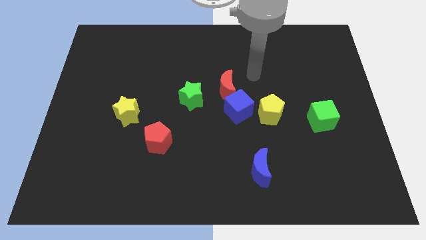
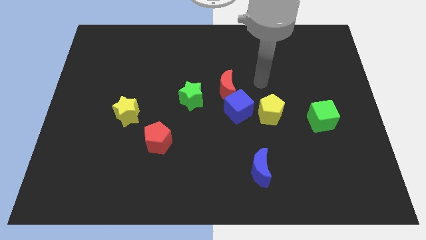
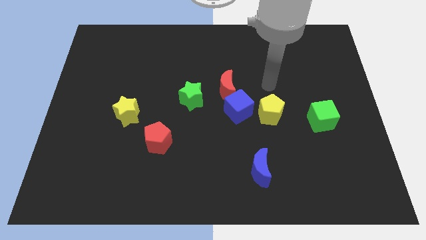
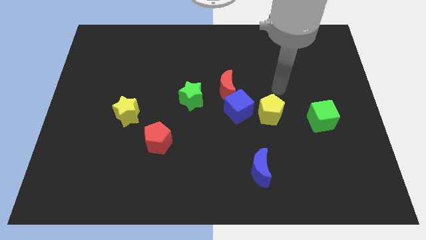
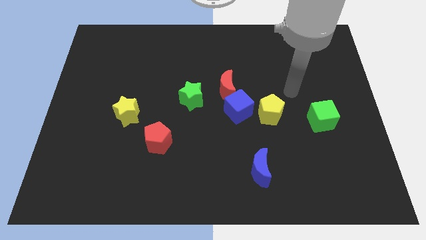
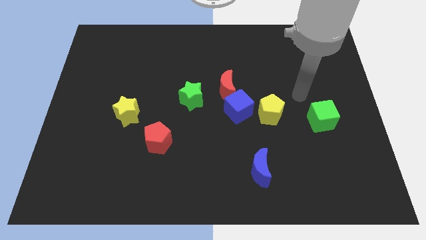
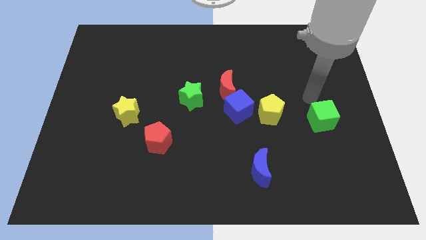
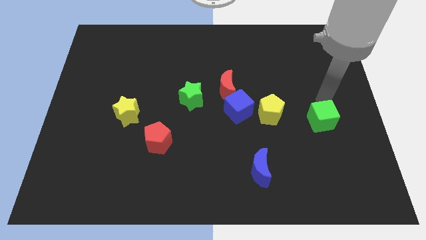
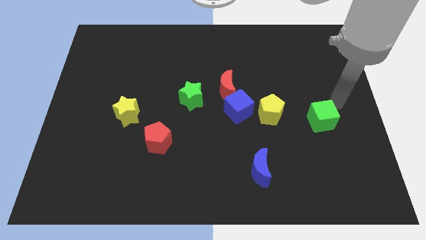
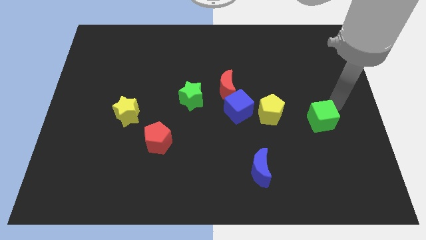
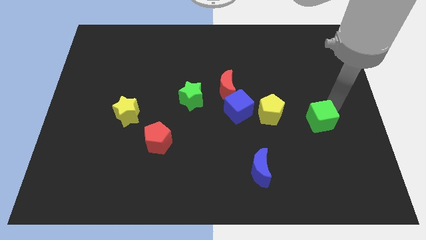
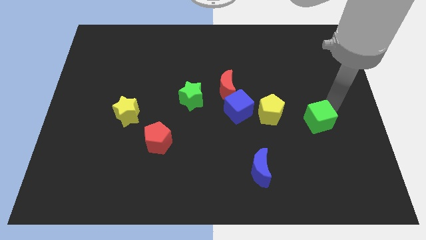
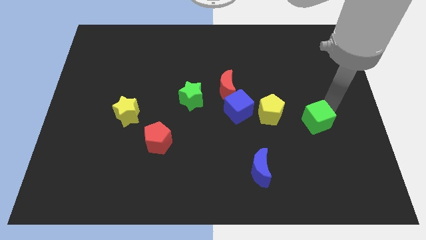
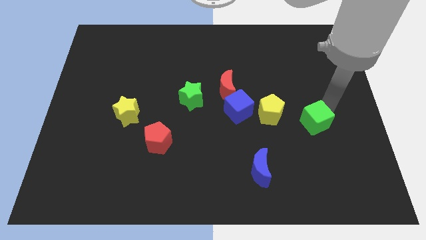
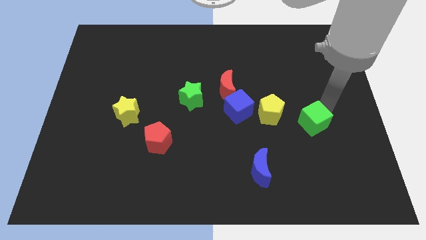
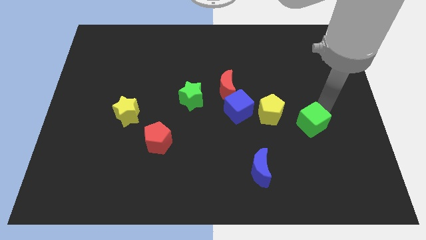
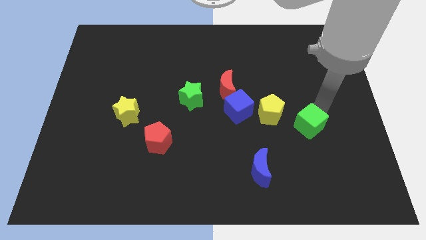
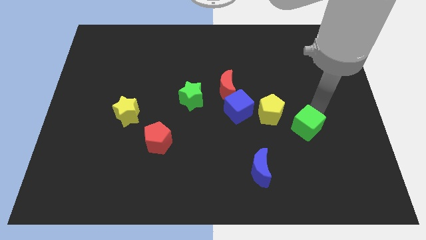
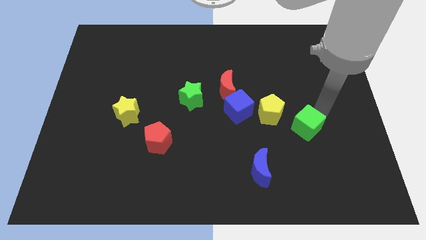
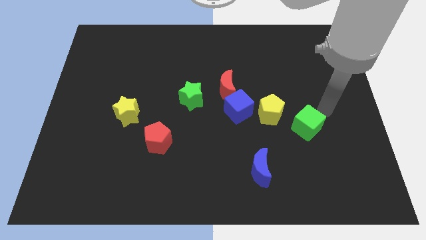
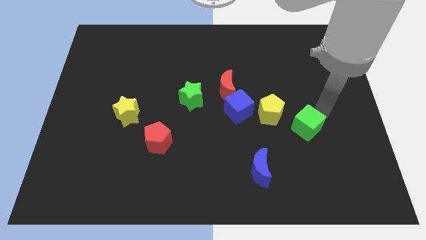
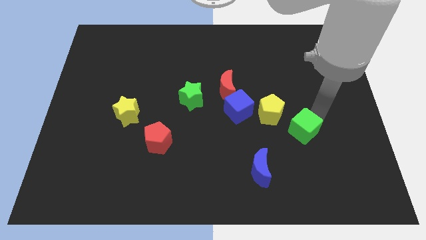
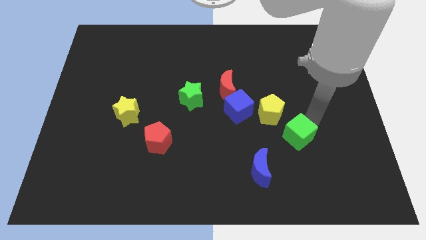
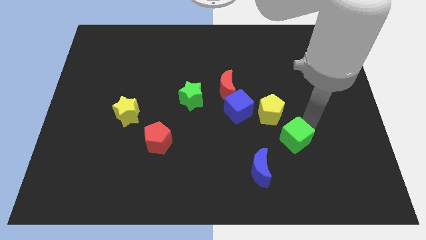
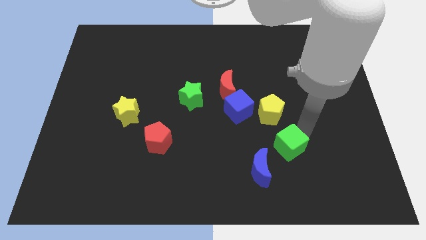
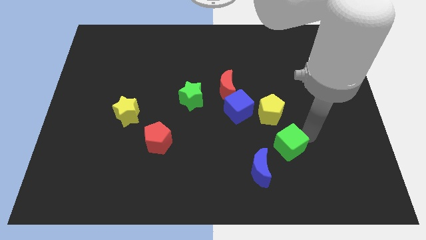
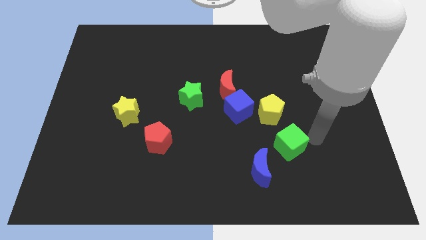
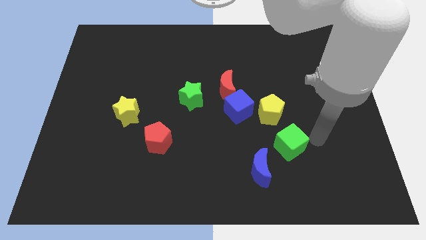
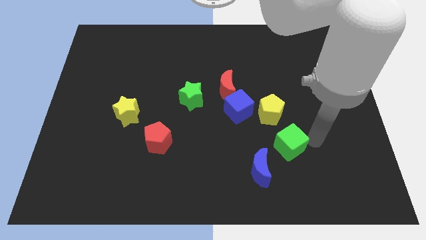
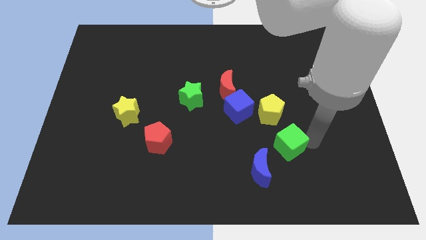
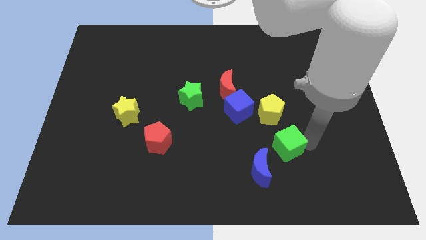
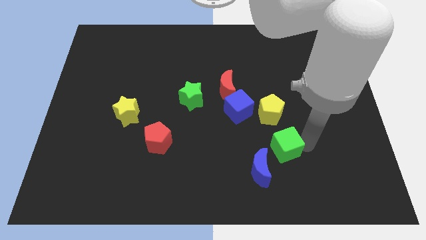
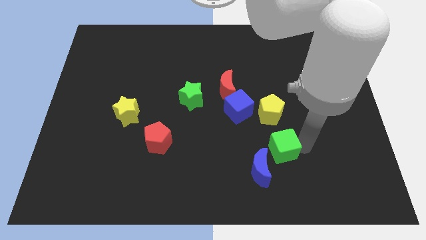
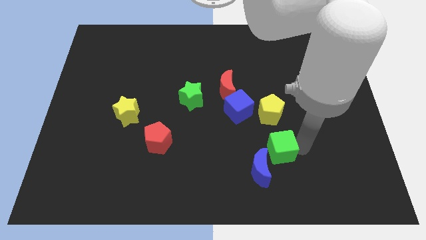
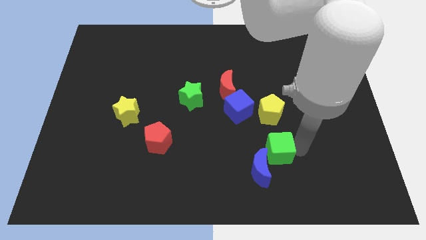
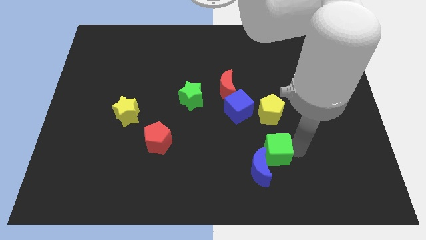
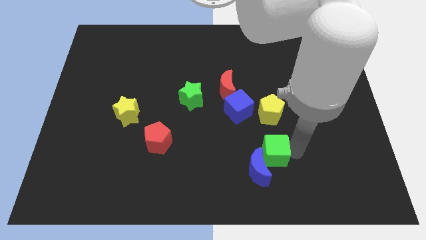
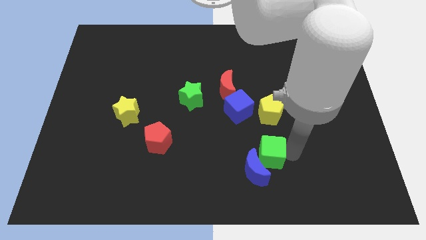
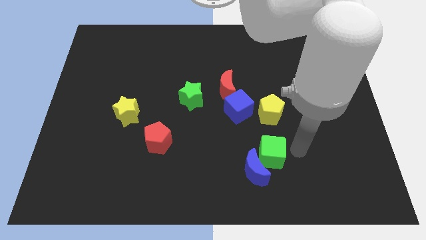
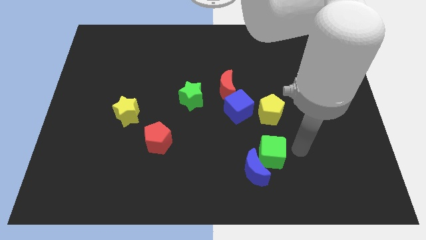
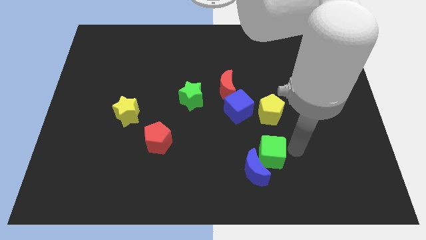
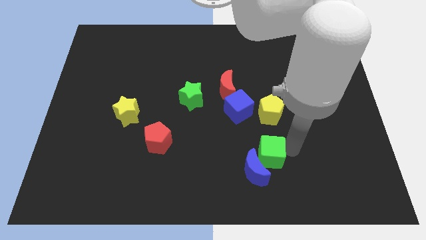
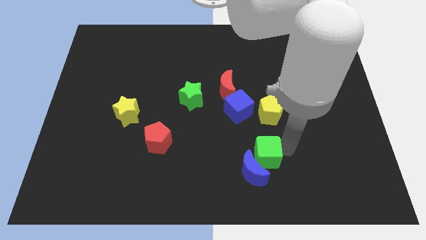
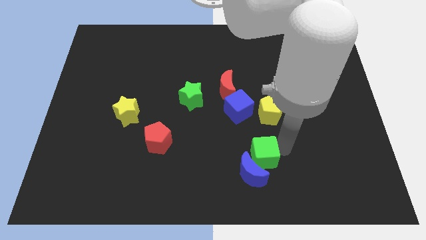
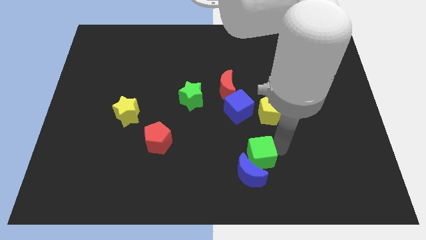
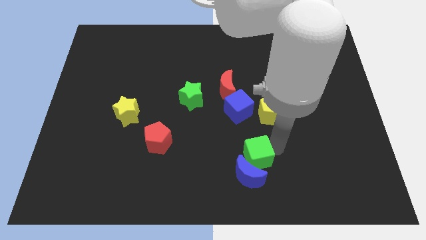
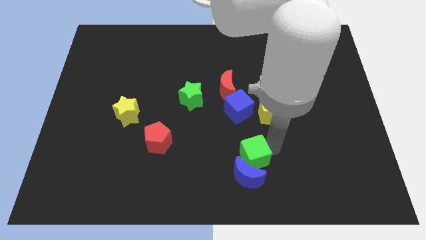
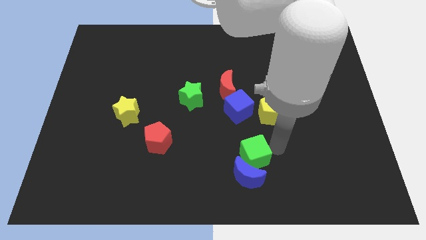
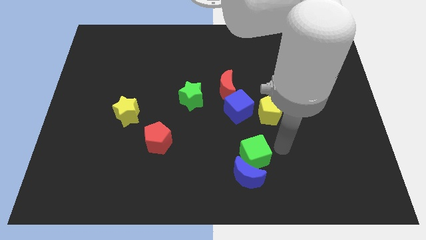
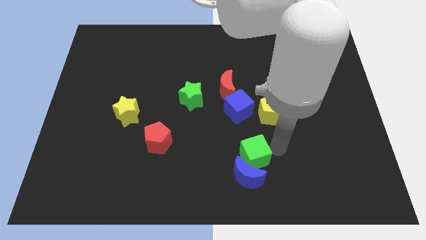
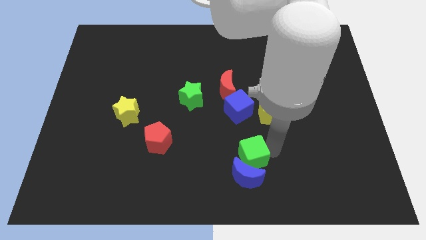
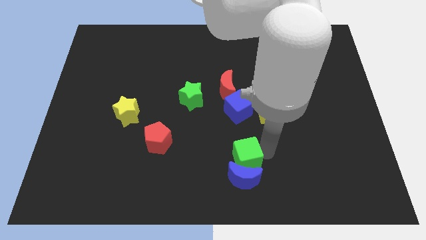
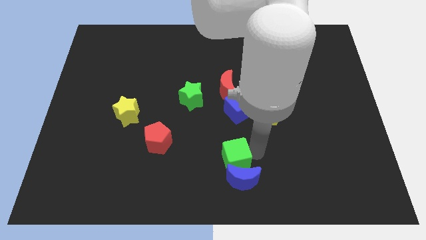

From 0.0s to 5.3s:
move the green cube to the bottom

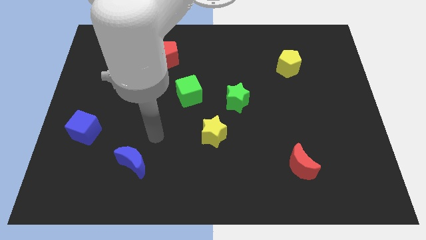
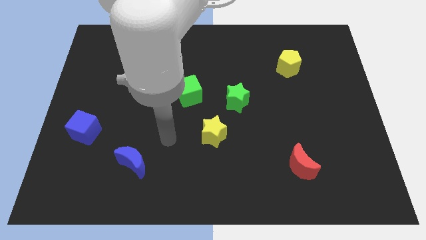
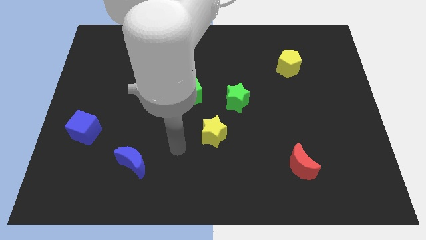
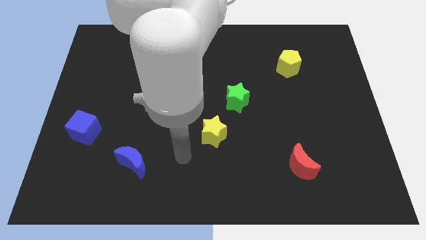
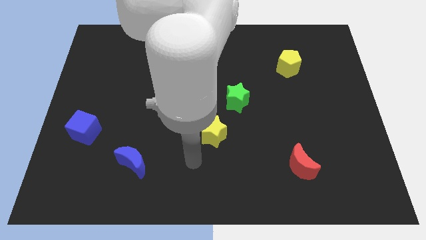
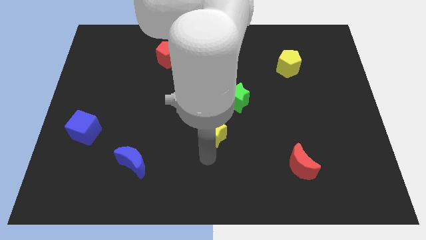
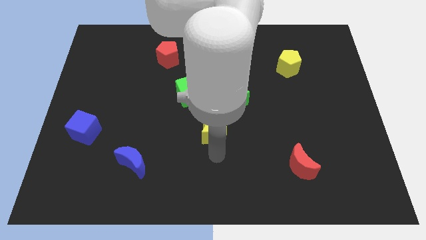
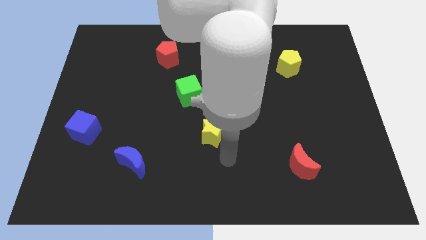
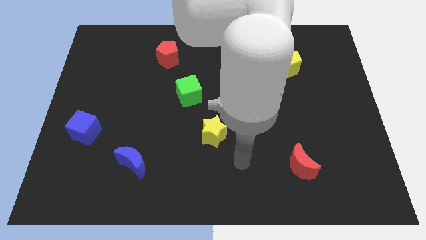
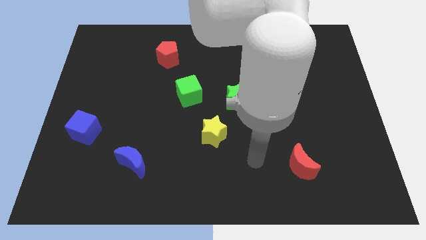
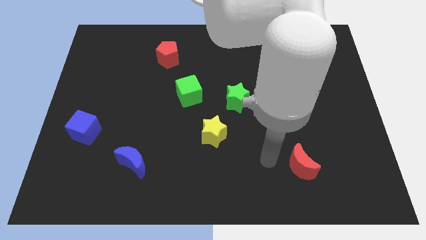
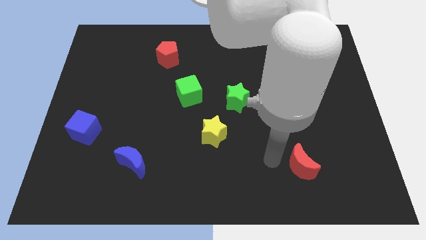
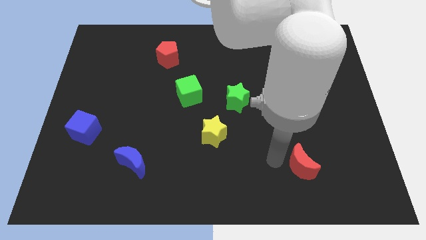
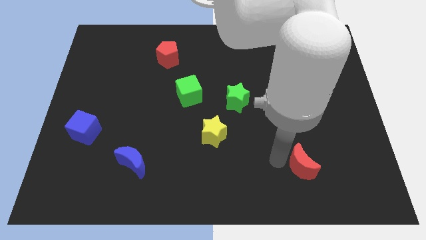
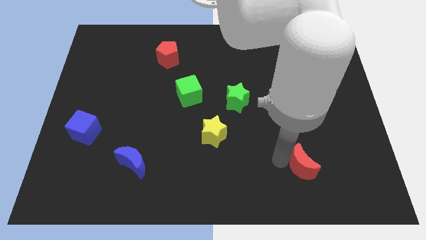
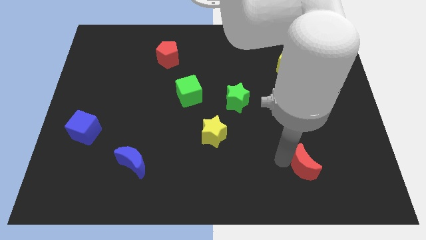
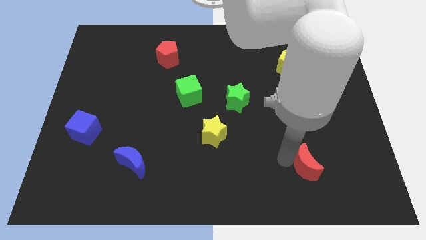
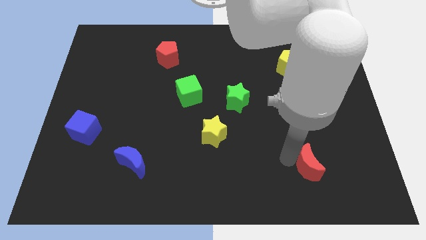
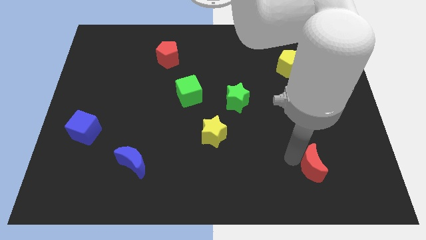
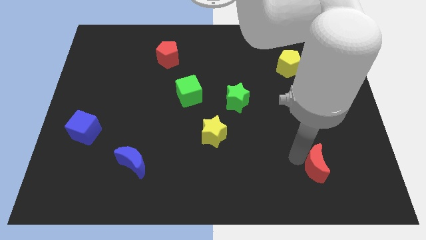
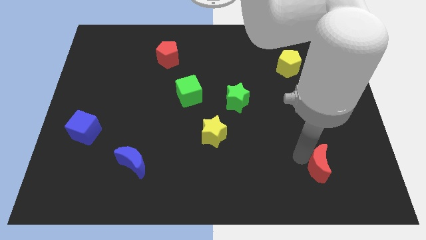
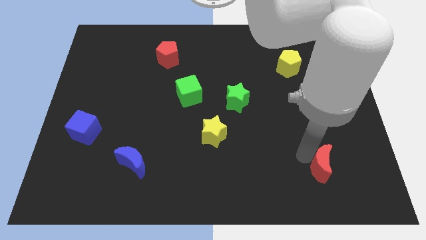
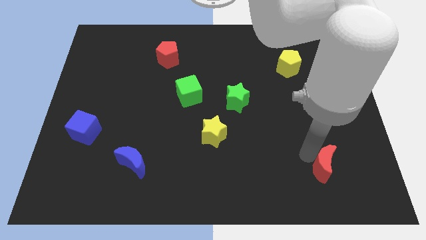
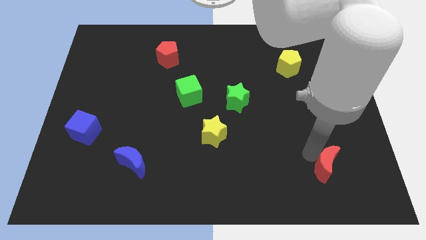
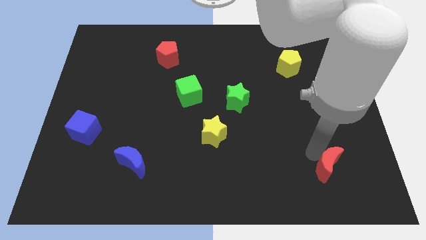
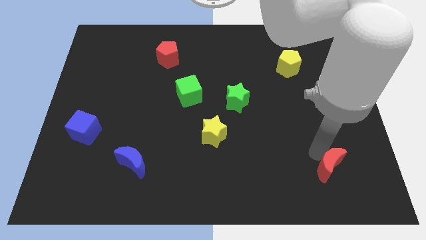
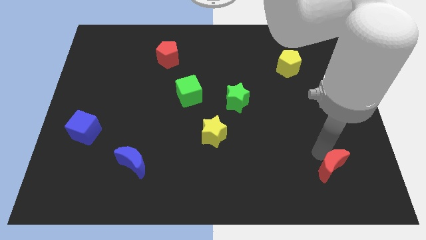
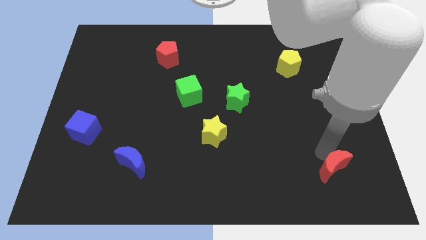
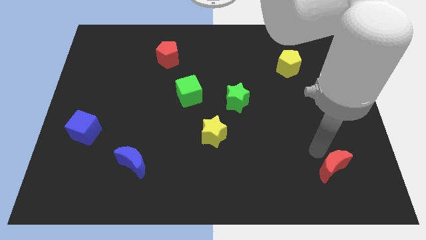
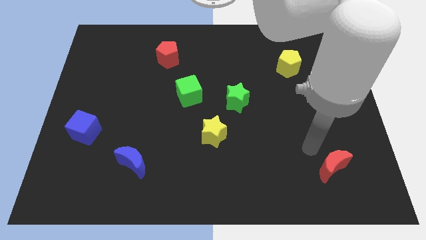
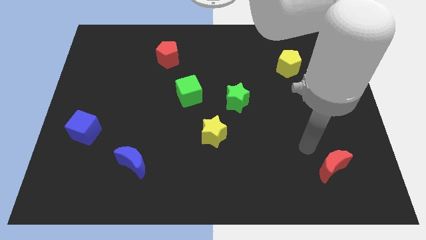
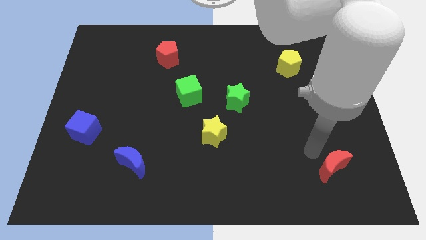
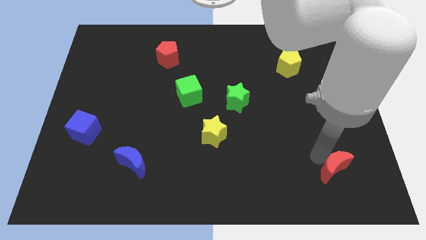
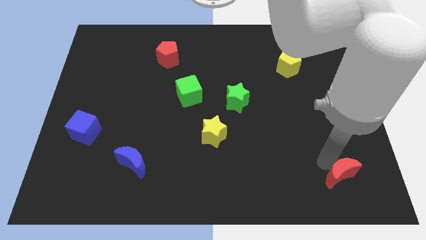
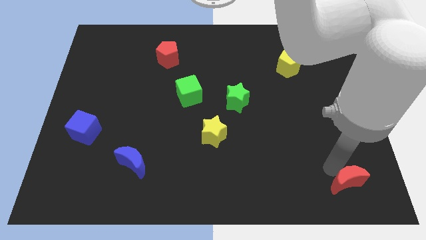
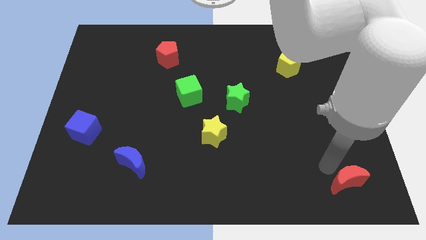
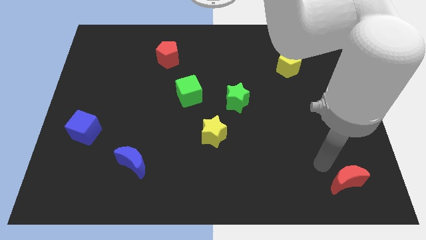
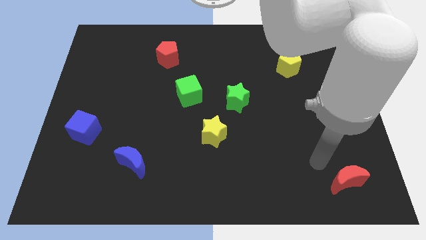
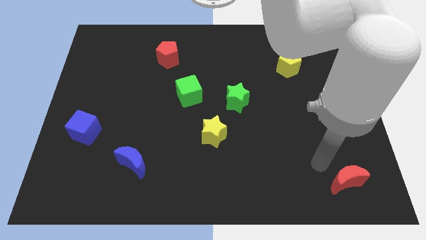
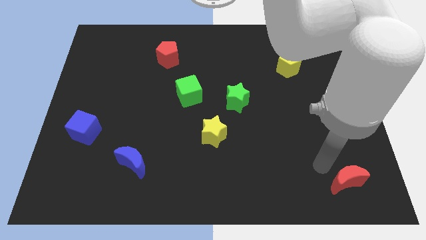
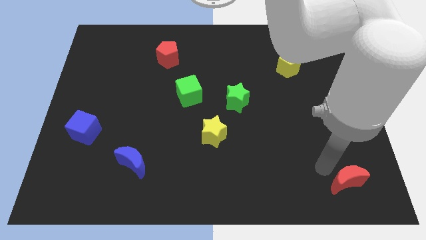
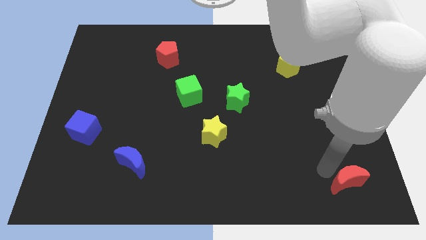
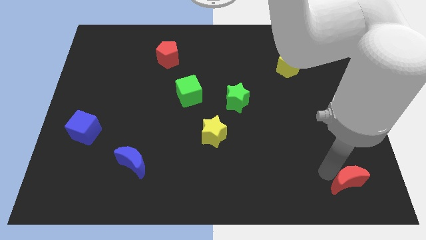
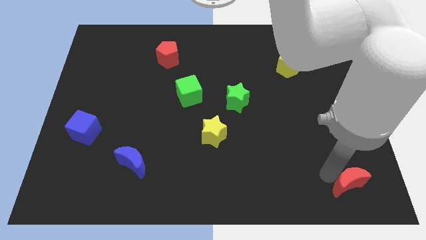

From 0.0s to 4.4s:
put the red moon to the bottom right corner
